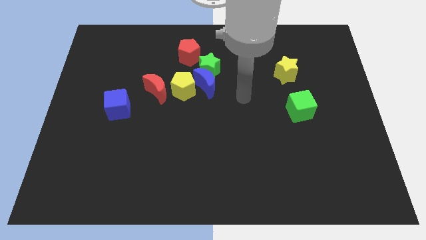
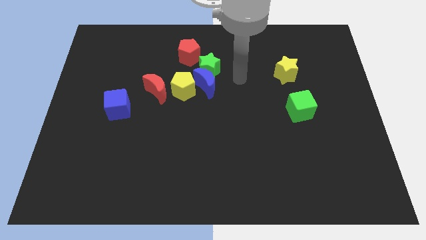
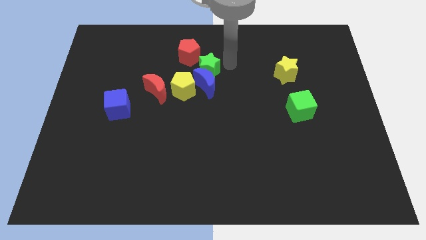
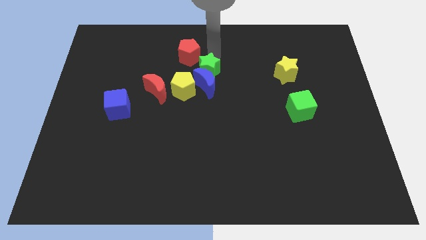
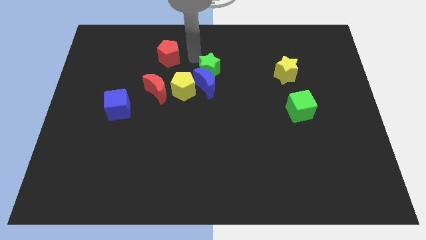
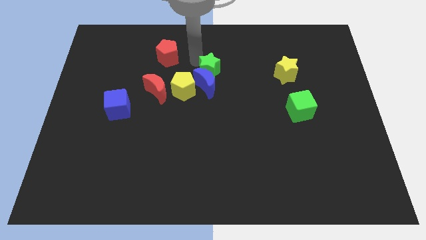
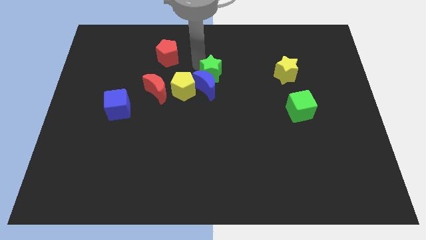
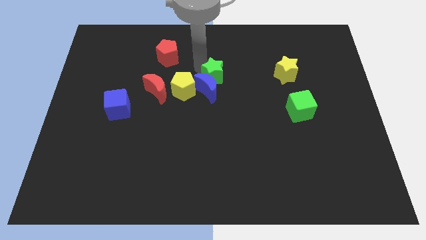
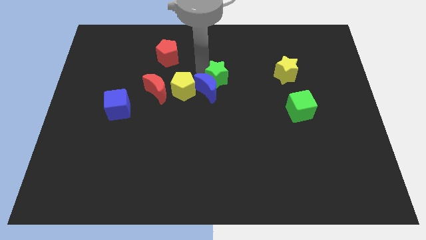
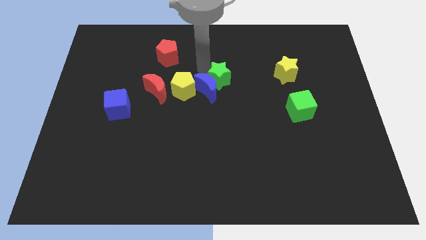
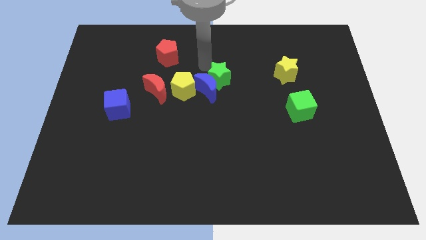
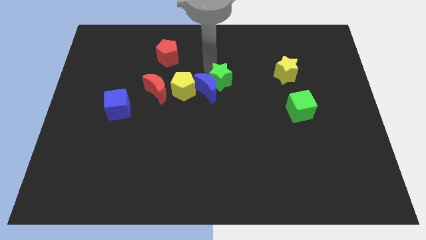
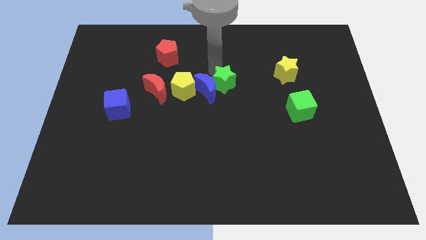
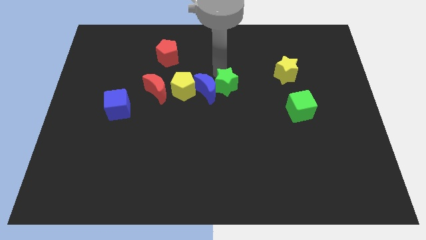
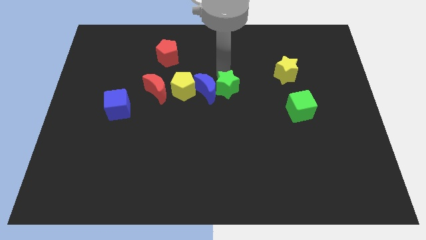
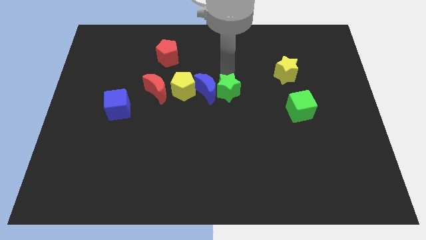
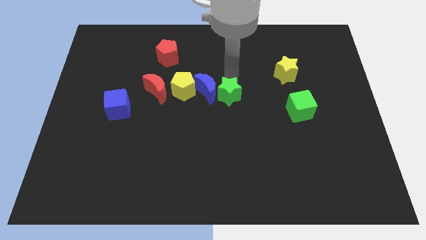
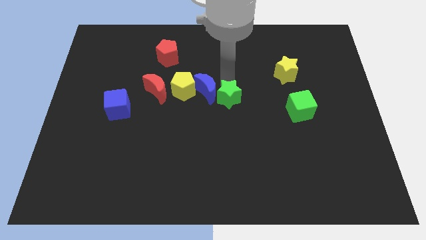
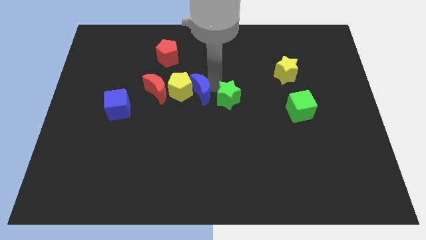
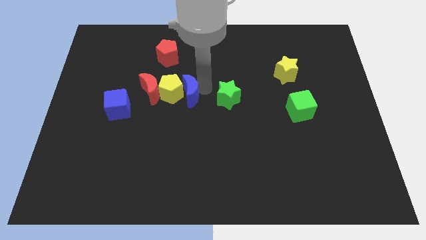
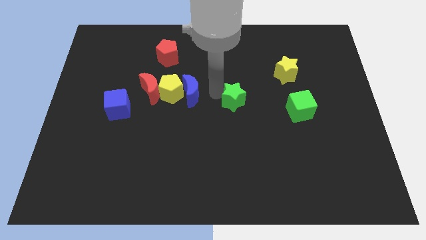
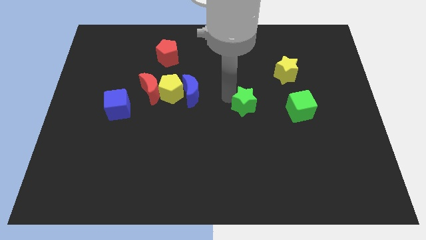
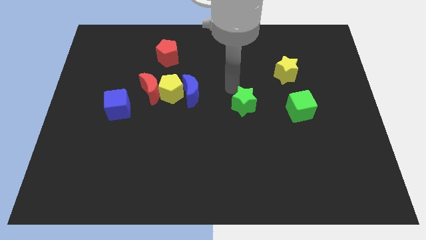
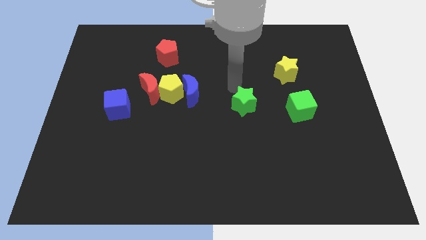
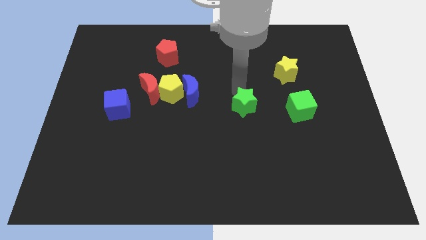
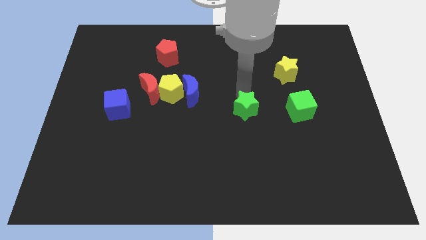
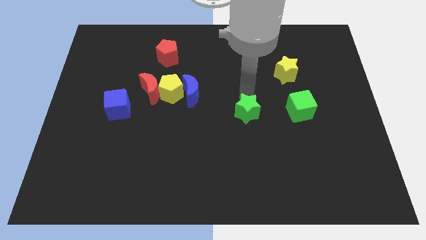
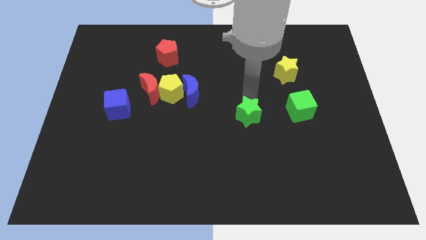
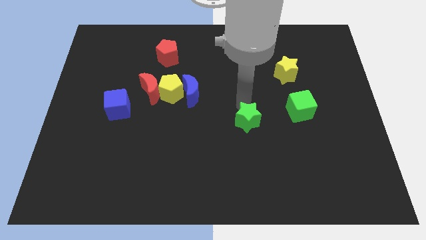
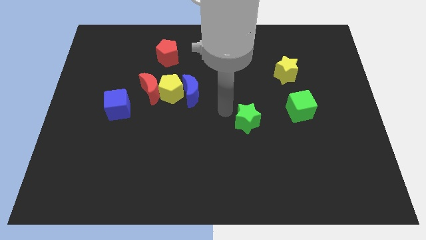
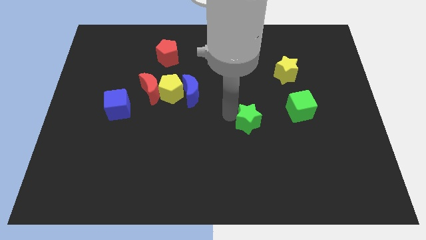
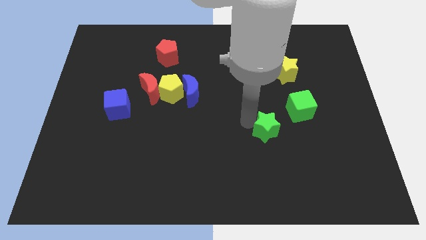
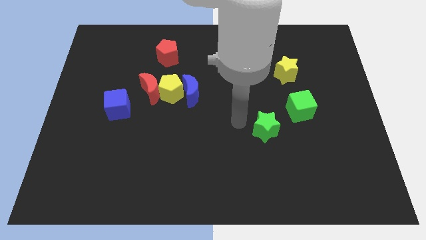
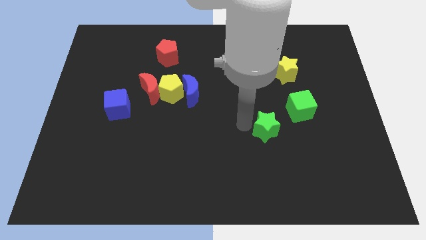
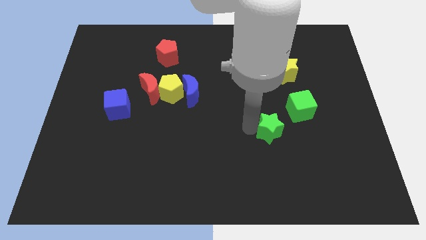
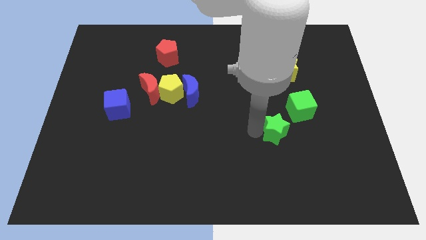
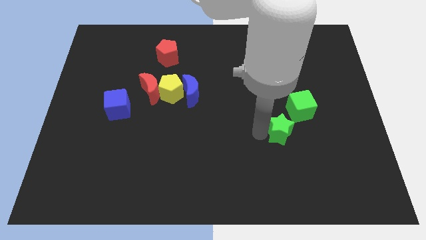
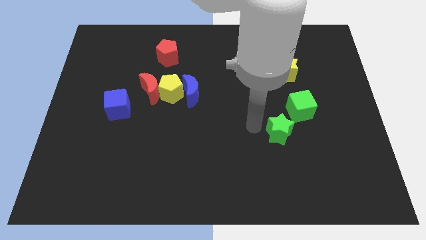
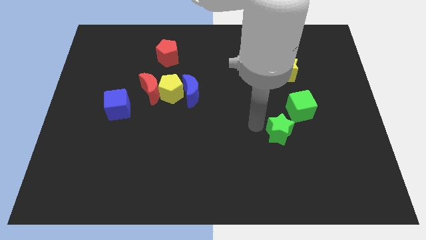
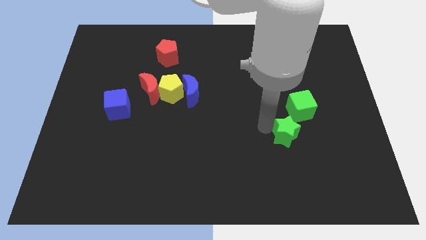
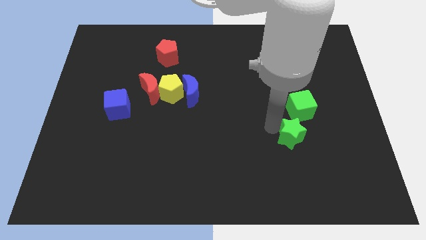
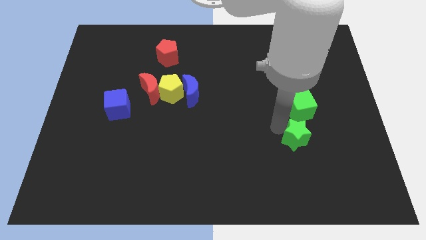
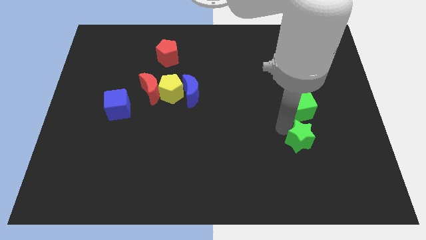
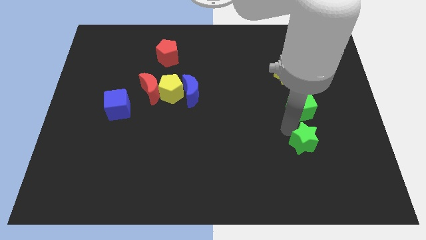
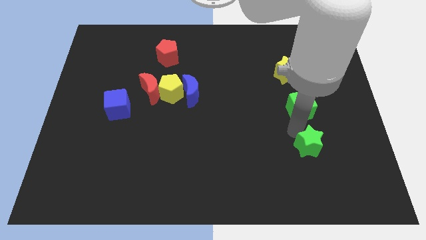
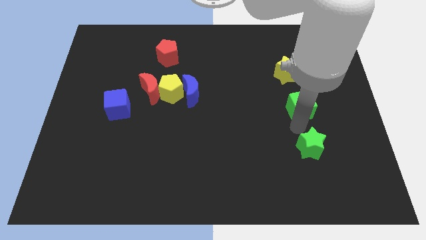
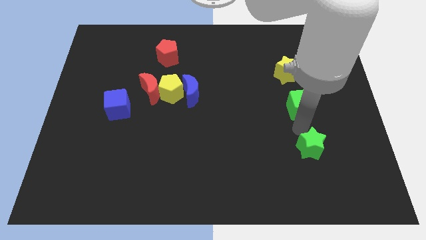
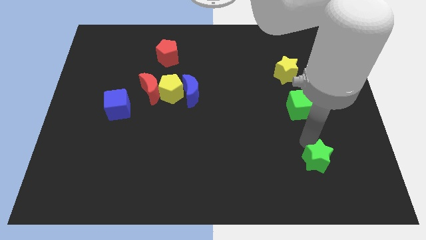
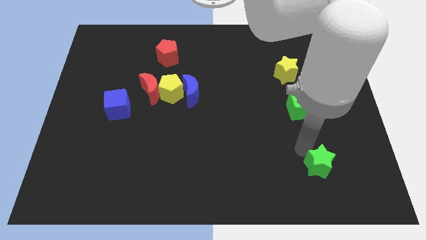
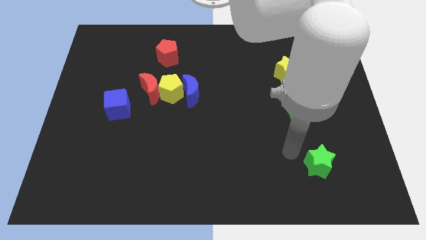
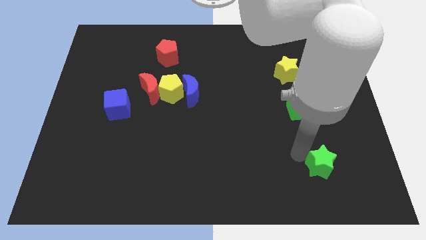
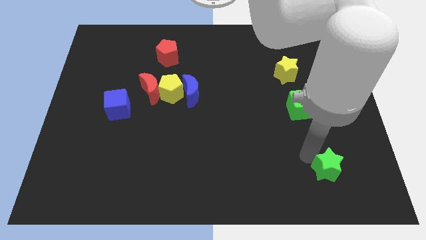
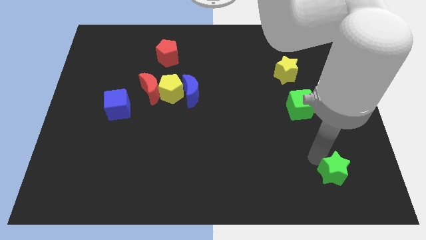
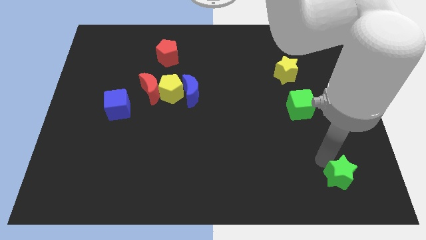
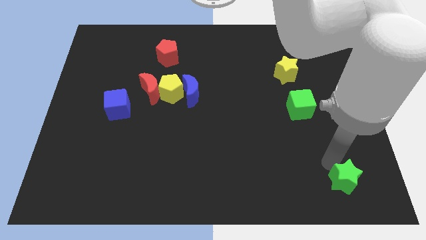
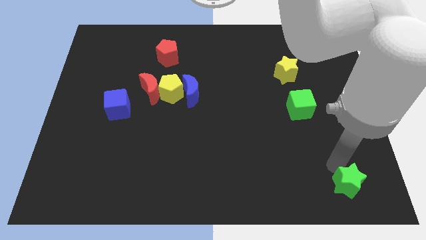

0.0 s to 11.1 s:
put the green star to the bottom right corner
